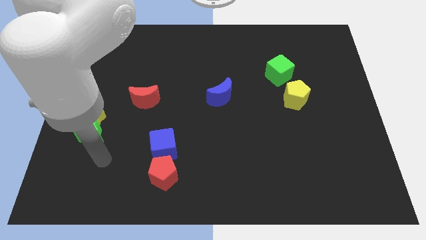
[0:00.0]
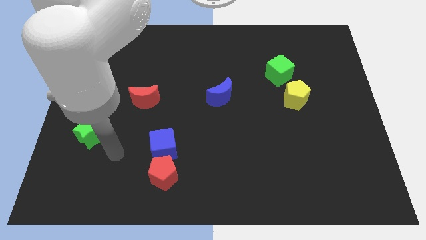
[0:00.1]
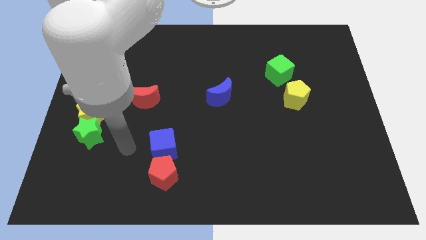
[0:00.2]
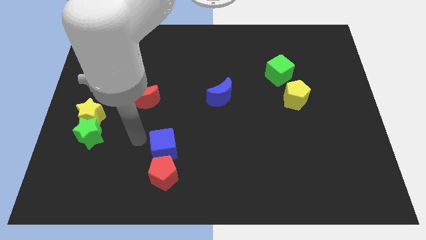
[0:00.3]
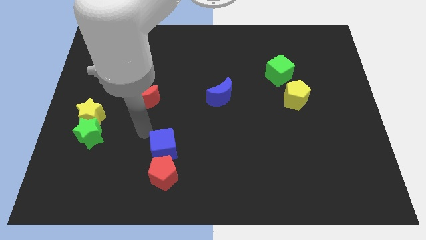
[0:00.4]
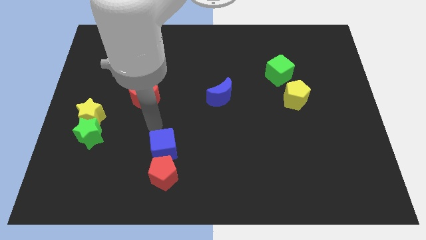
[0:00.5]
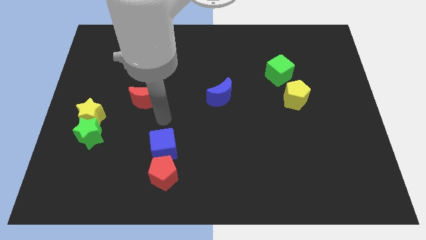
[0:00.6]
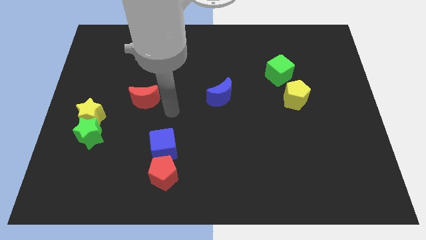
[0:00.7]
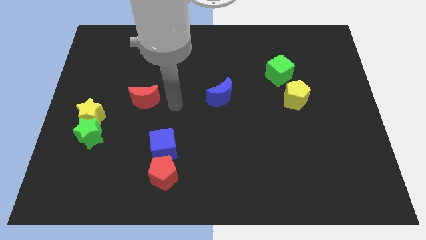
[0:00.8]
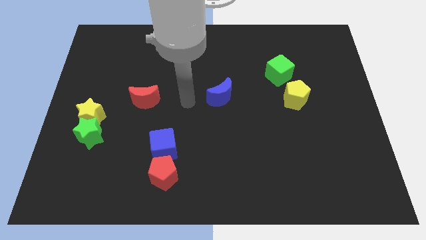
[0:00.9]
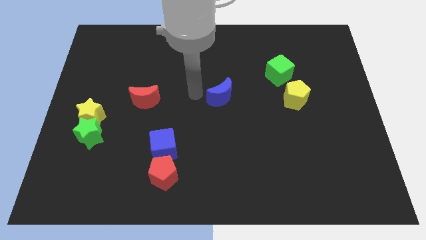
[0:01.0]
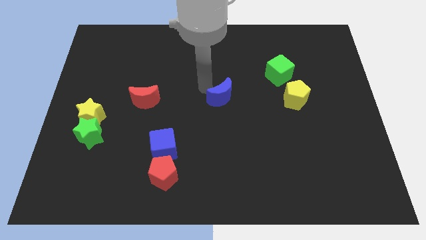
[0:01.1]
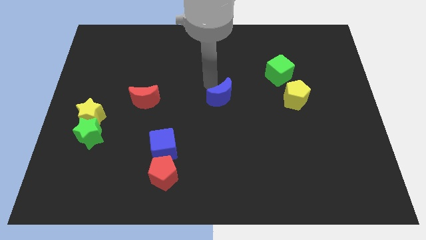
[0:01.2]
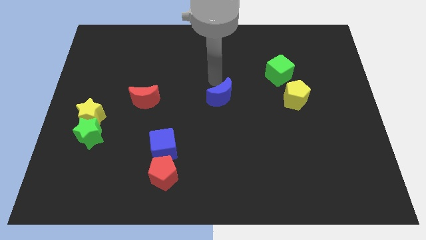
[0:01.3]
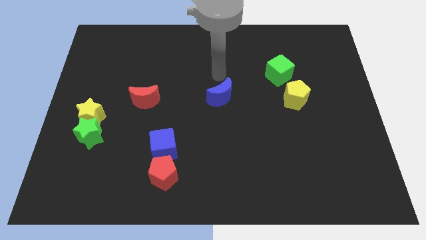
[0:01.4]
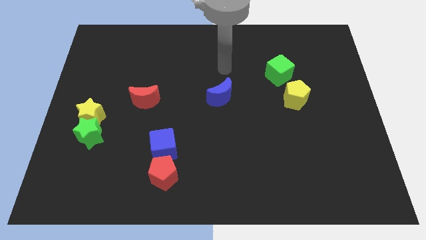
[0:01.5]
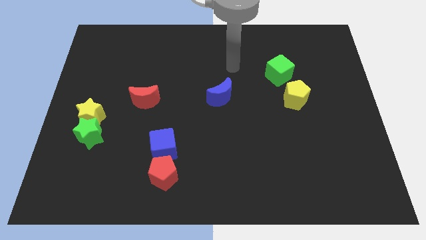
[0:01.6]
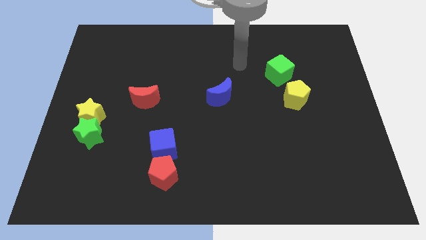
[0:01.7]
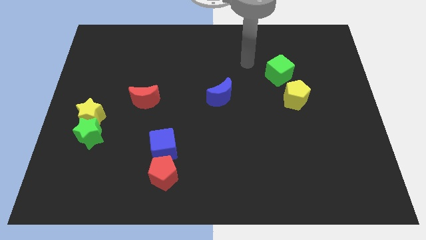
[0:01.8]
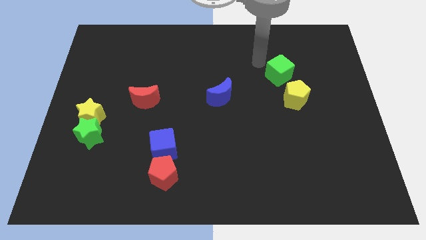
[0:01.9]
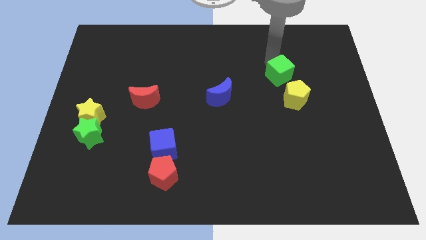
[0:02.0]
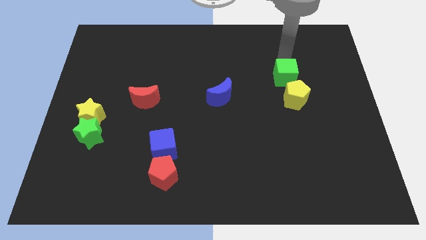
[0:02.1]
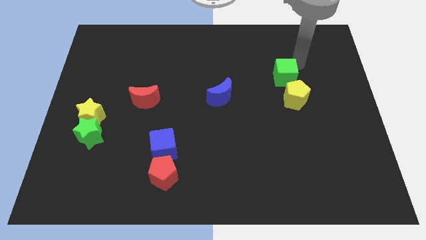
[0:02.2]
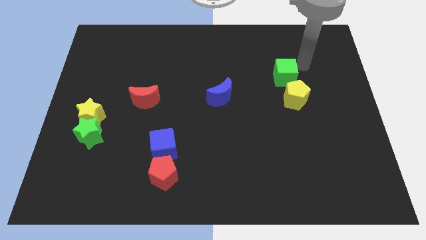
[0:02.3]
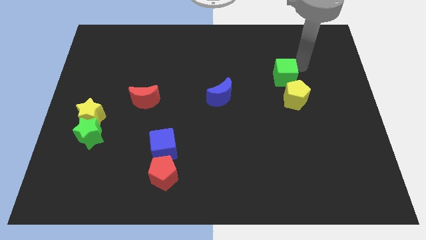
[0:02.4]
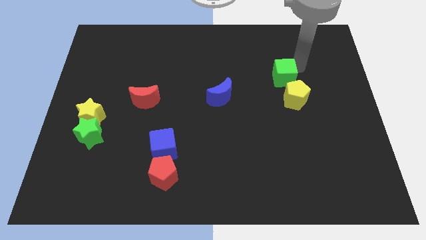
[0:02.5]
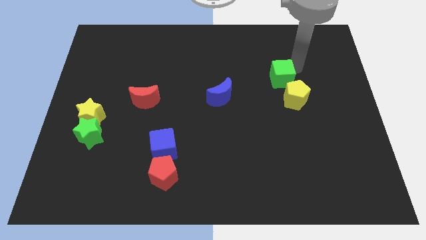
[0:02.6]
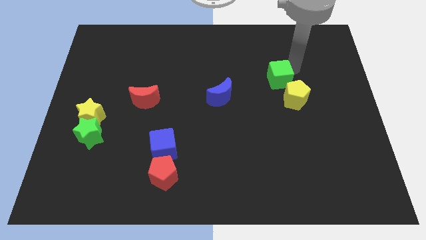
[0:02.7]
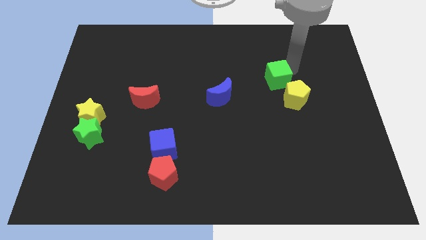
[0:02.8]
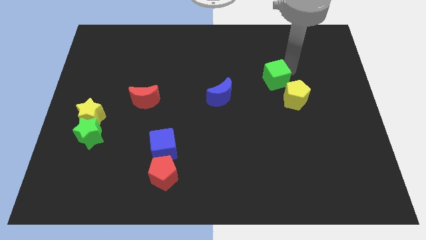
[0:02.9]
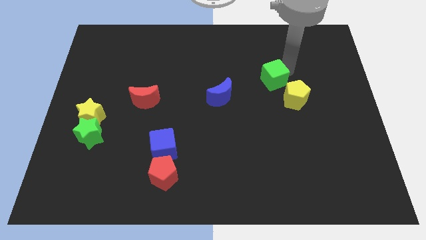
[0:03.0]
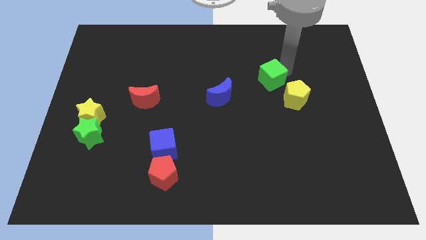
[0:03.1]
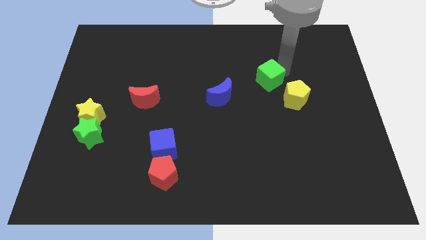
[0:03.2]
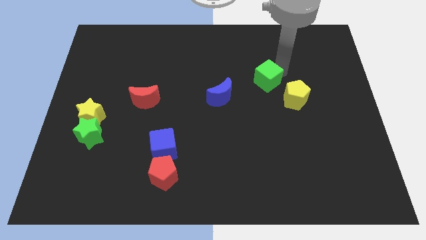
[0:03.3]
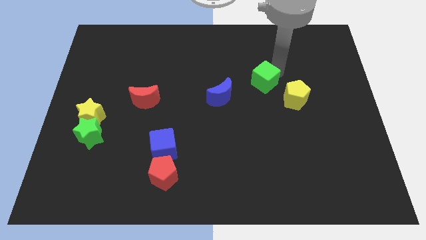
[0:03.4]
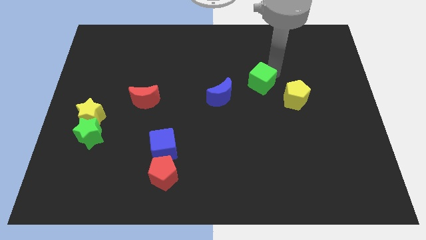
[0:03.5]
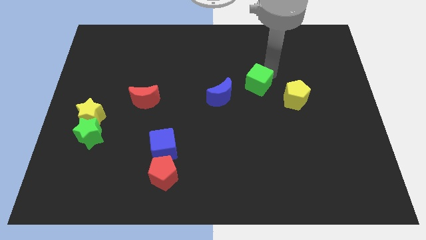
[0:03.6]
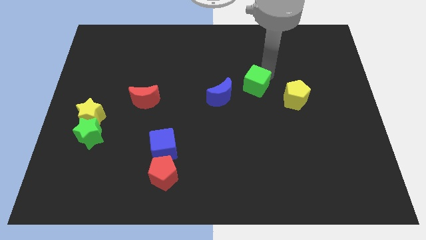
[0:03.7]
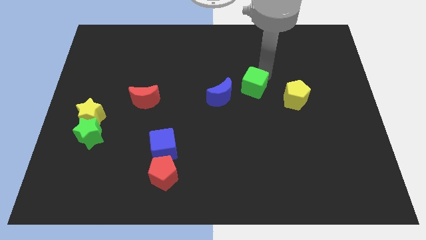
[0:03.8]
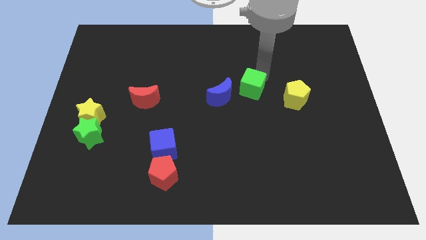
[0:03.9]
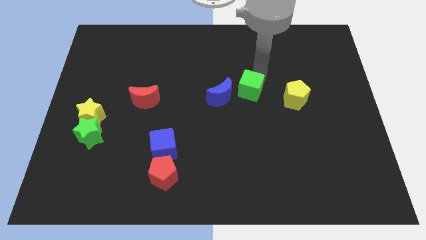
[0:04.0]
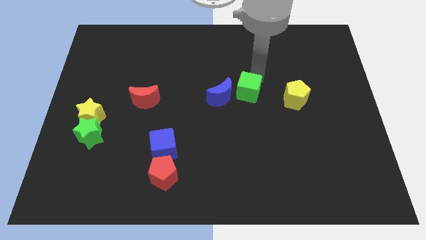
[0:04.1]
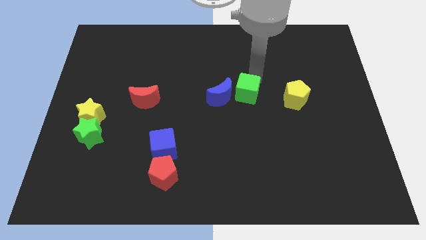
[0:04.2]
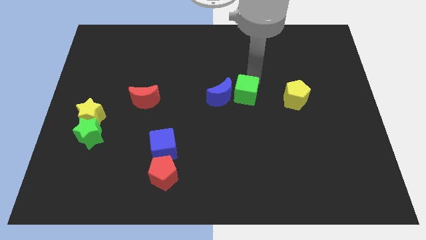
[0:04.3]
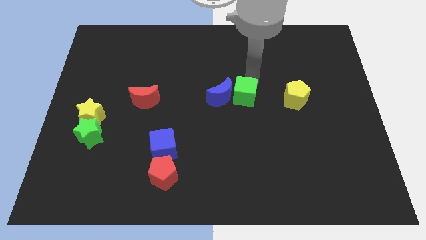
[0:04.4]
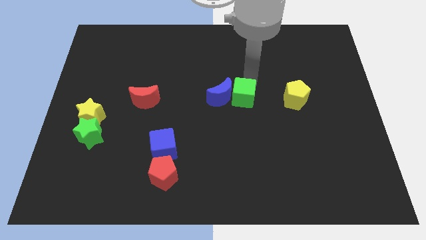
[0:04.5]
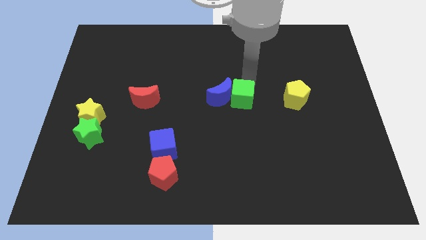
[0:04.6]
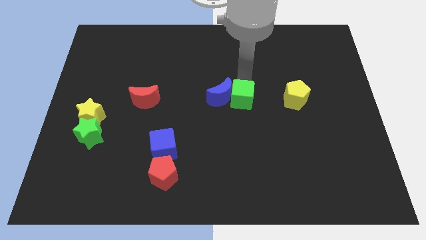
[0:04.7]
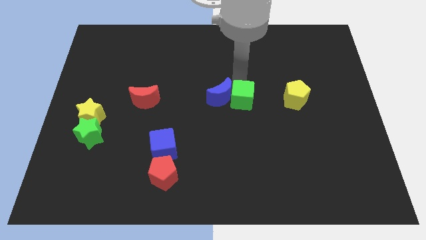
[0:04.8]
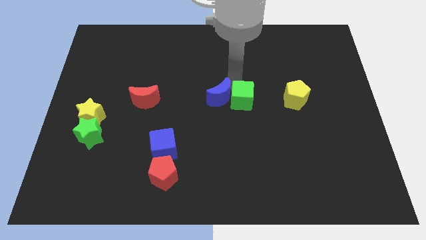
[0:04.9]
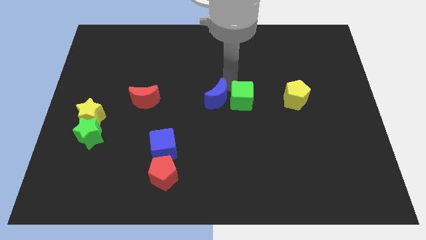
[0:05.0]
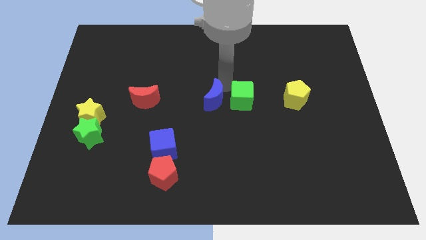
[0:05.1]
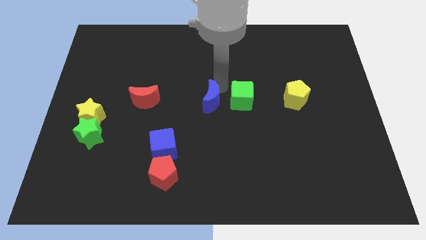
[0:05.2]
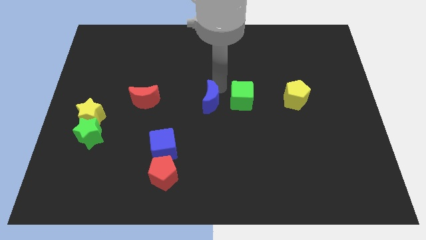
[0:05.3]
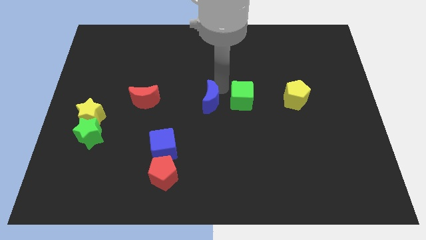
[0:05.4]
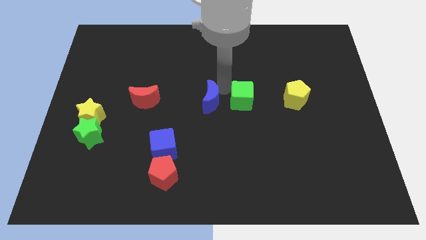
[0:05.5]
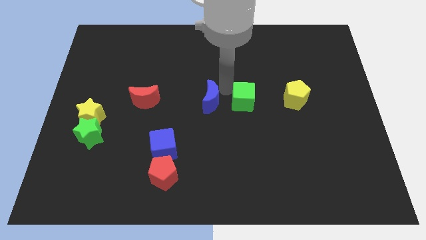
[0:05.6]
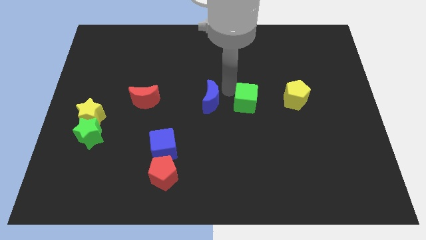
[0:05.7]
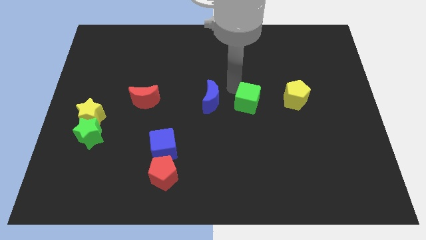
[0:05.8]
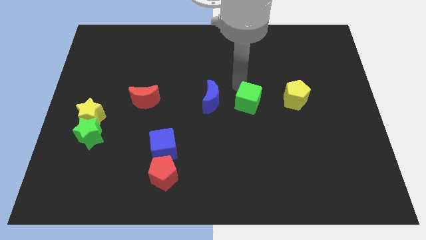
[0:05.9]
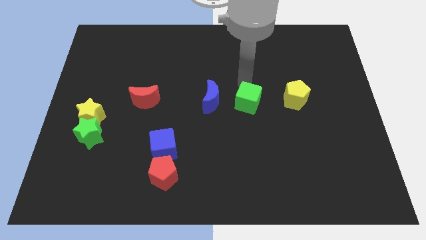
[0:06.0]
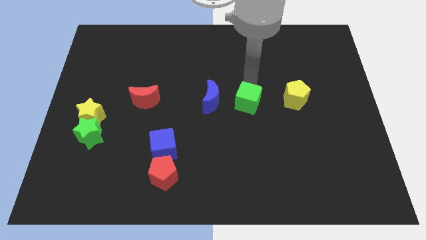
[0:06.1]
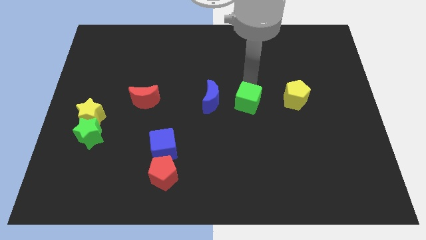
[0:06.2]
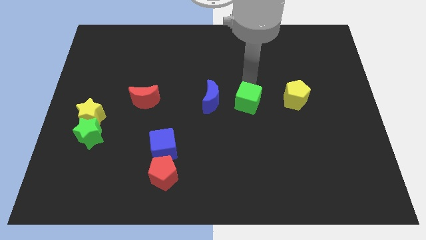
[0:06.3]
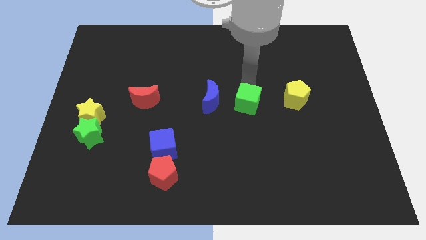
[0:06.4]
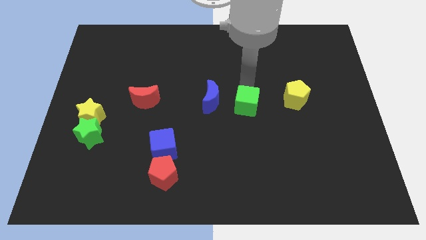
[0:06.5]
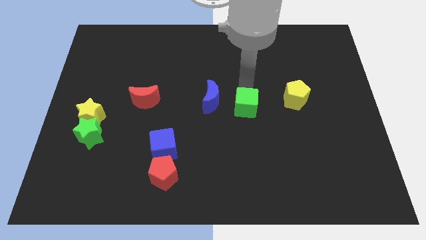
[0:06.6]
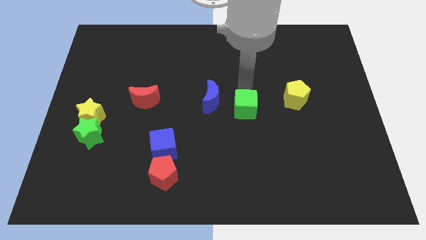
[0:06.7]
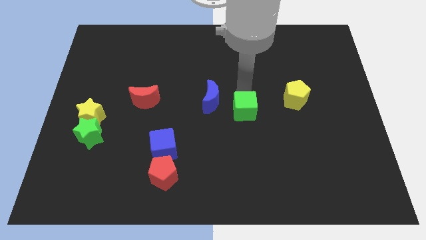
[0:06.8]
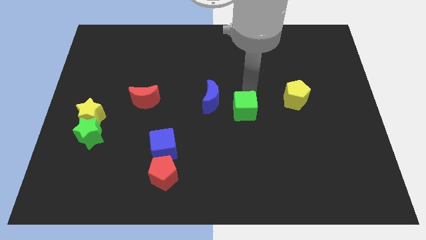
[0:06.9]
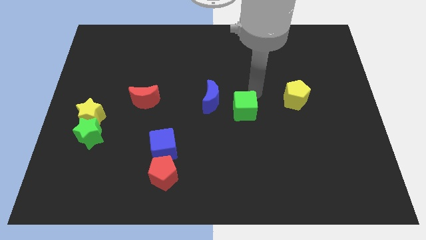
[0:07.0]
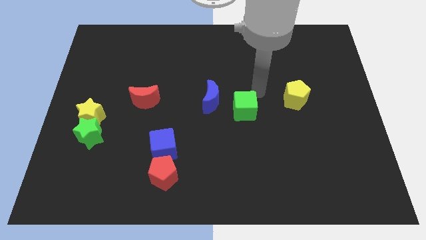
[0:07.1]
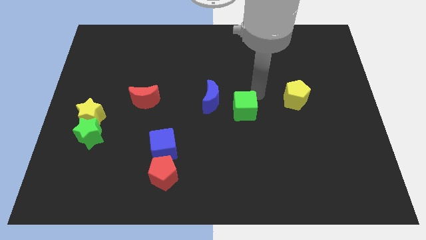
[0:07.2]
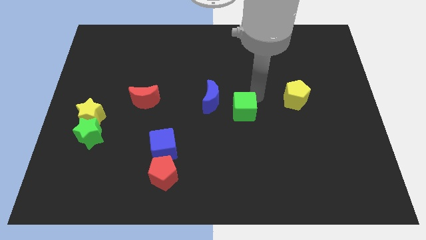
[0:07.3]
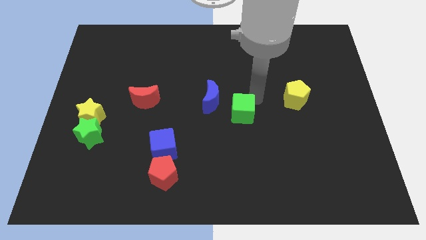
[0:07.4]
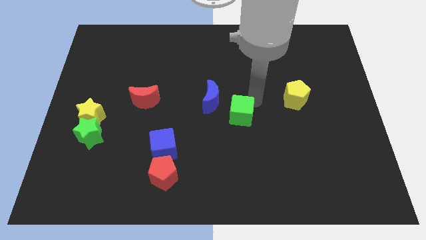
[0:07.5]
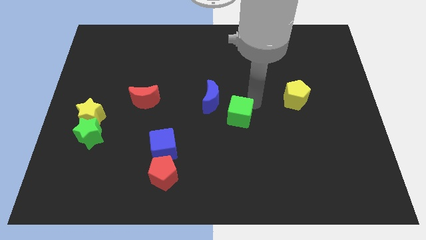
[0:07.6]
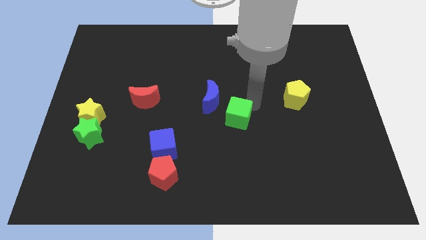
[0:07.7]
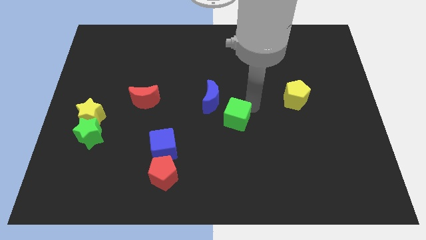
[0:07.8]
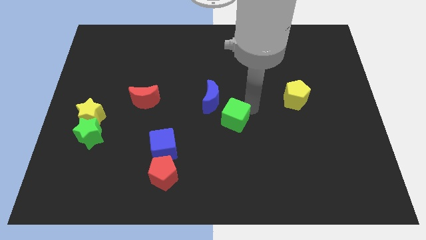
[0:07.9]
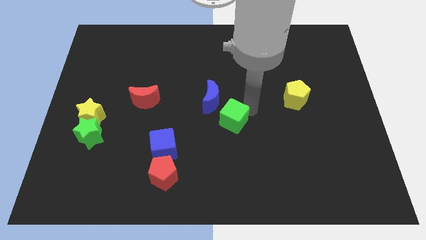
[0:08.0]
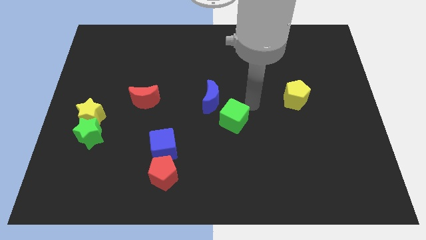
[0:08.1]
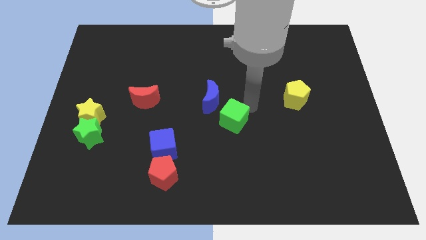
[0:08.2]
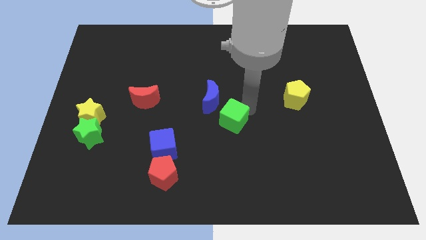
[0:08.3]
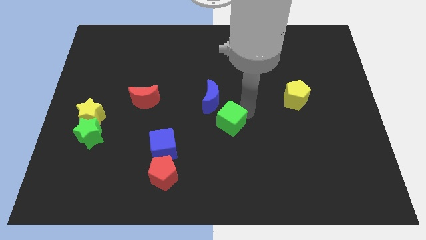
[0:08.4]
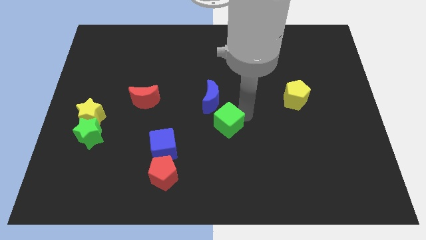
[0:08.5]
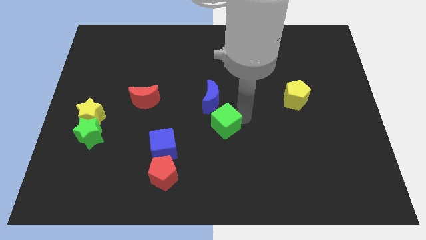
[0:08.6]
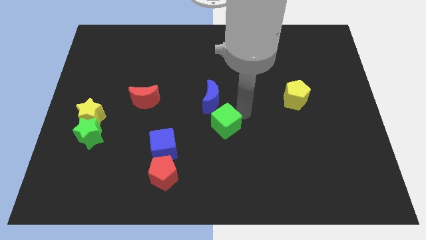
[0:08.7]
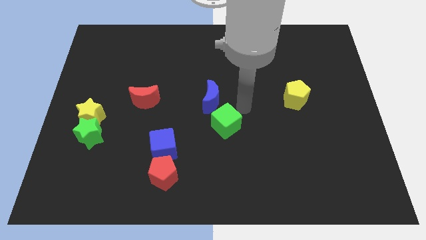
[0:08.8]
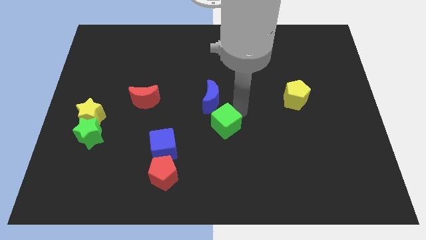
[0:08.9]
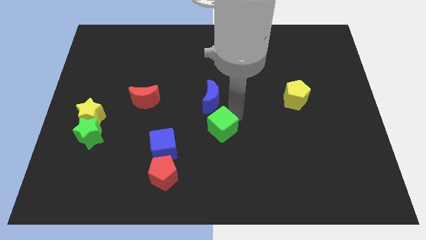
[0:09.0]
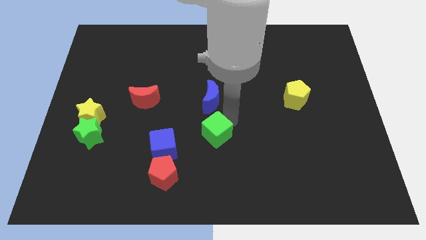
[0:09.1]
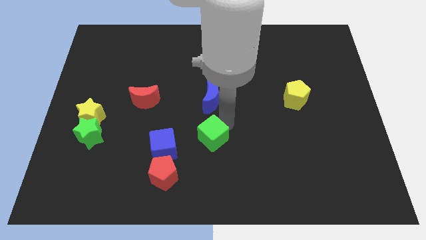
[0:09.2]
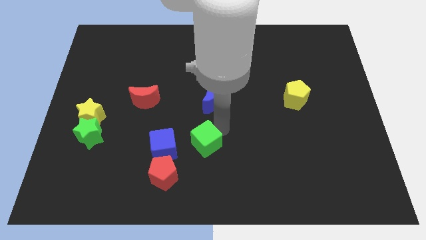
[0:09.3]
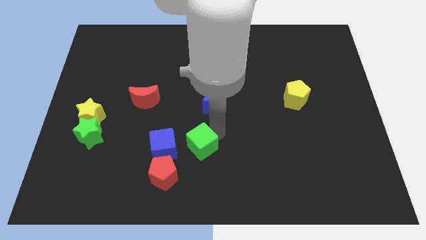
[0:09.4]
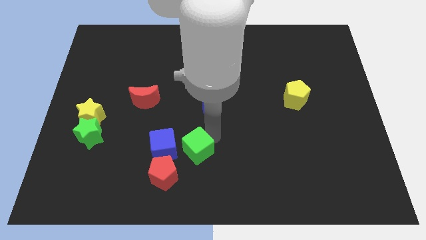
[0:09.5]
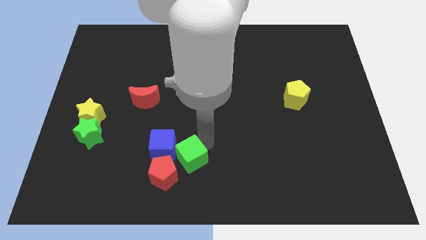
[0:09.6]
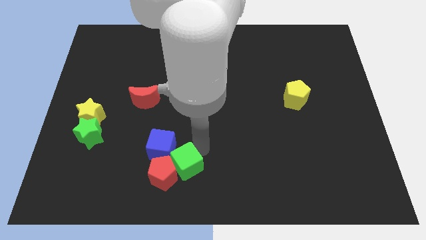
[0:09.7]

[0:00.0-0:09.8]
put the green cube close to the red pentagon
